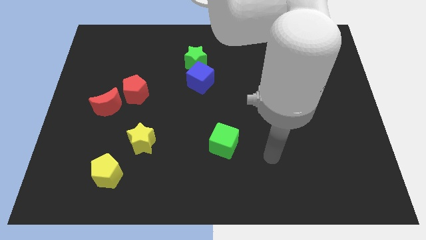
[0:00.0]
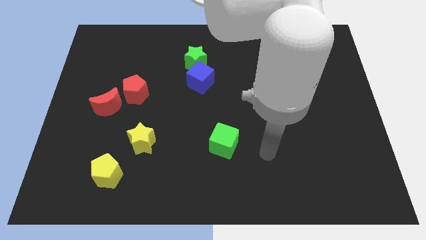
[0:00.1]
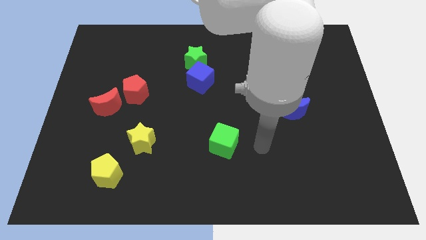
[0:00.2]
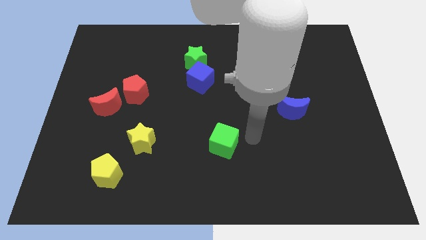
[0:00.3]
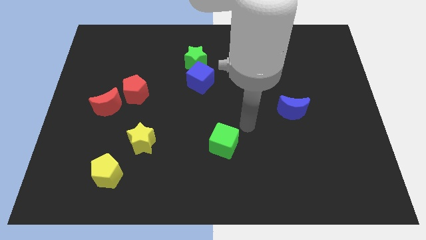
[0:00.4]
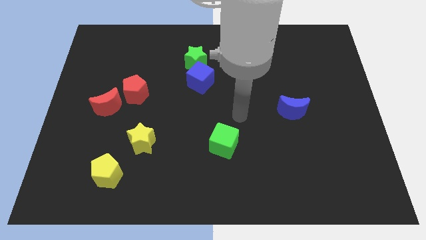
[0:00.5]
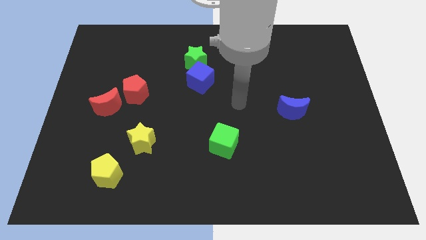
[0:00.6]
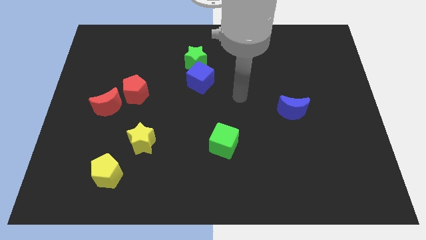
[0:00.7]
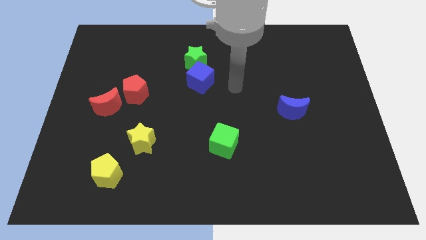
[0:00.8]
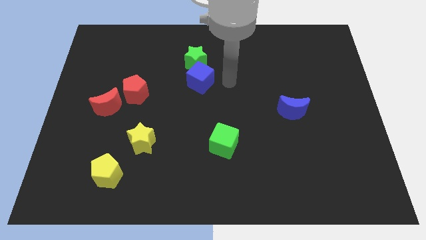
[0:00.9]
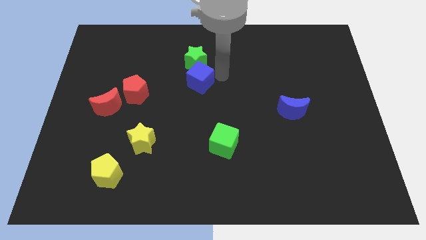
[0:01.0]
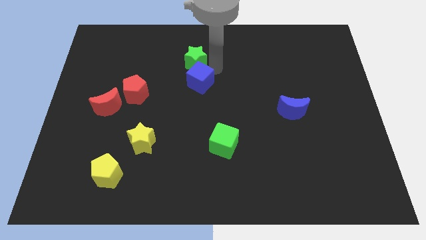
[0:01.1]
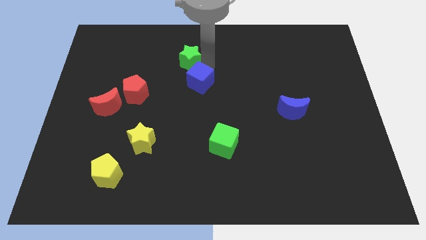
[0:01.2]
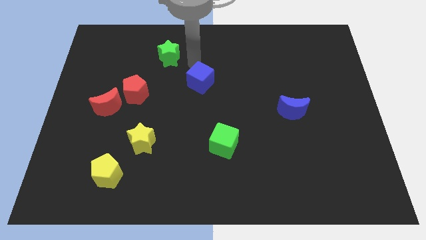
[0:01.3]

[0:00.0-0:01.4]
separate the blue cube from the green star

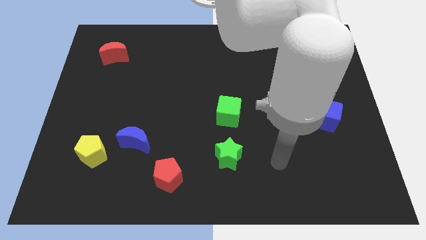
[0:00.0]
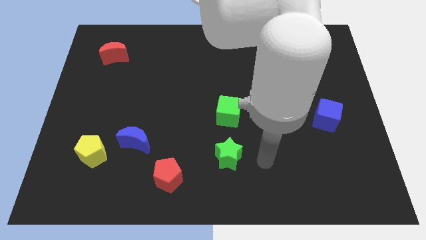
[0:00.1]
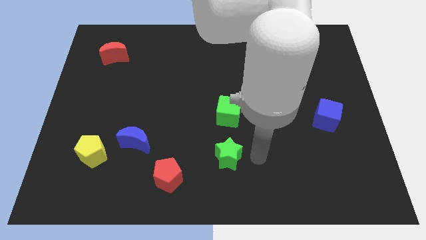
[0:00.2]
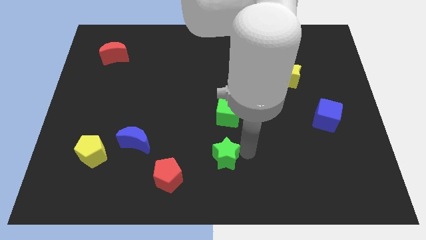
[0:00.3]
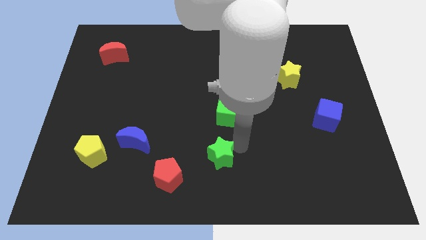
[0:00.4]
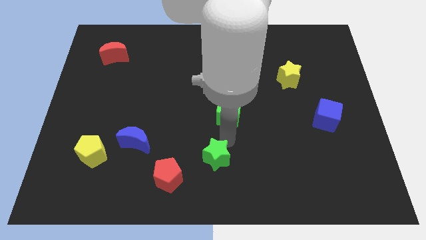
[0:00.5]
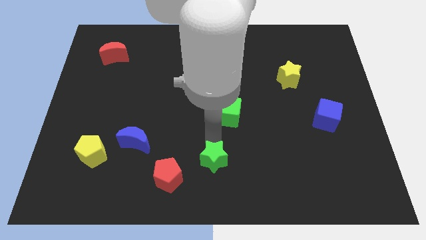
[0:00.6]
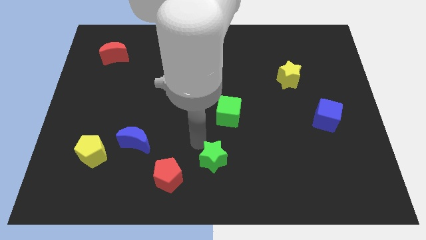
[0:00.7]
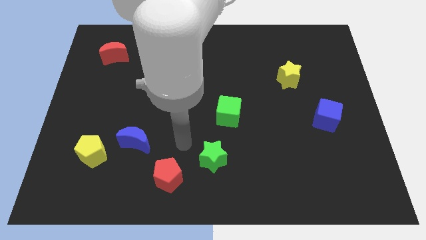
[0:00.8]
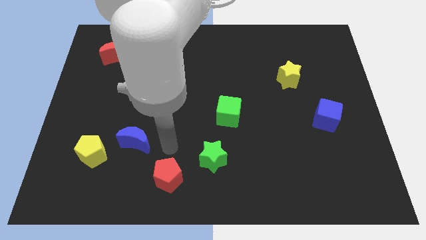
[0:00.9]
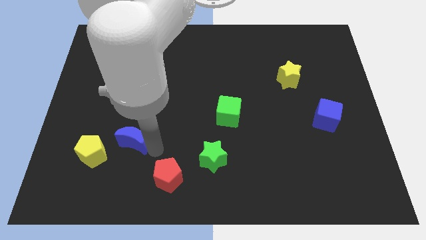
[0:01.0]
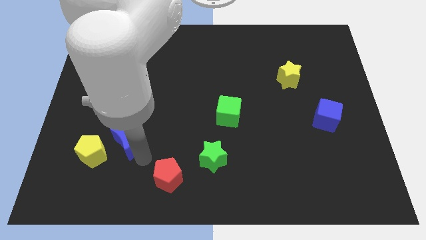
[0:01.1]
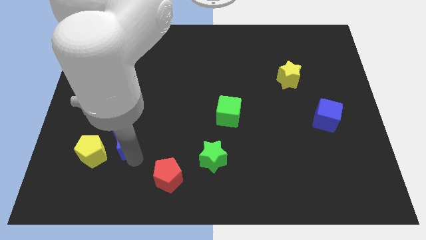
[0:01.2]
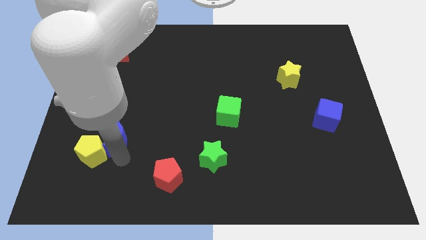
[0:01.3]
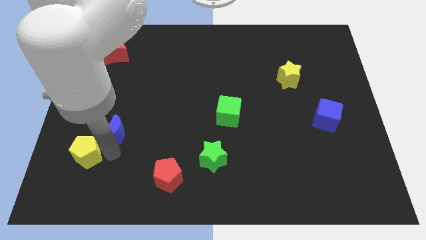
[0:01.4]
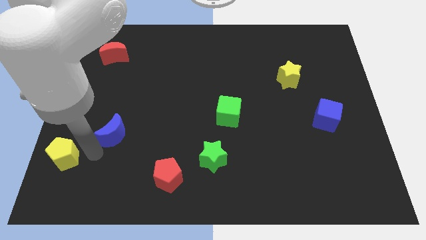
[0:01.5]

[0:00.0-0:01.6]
separate the blue moon from the yellow pentagon

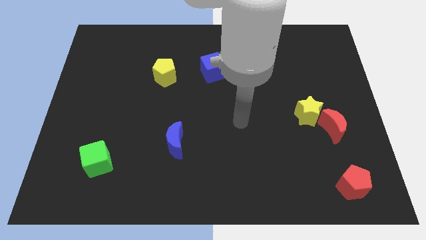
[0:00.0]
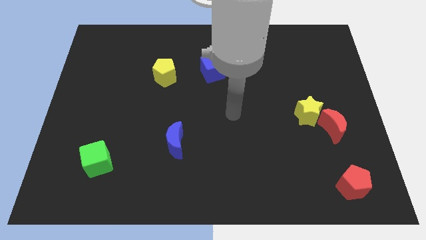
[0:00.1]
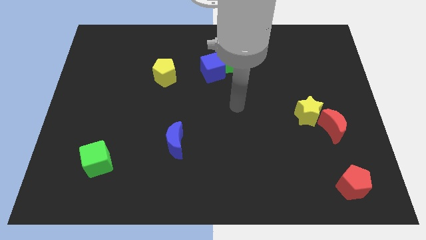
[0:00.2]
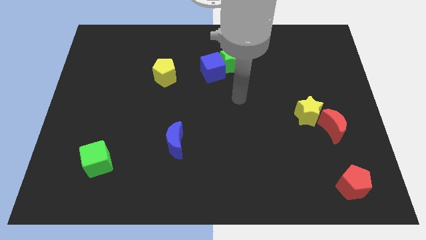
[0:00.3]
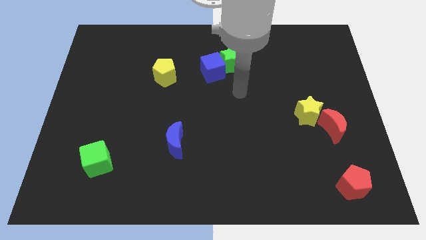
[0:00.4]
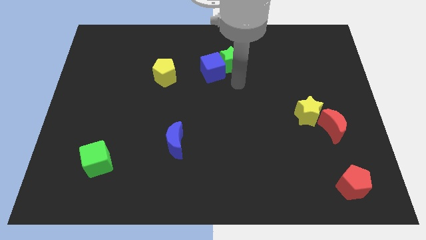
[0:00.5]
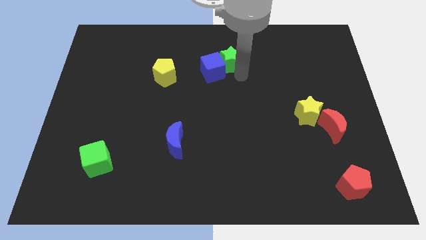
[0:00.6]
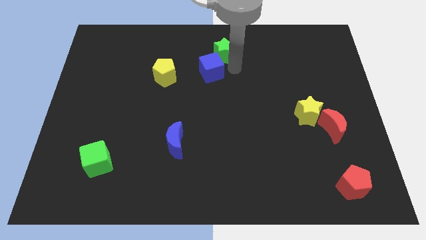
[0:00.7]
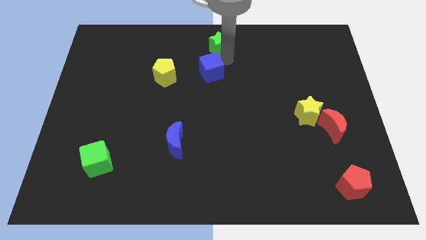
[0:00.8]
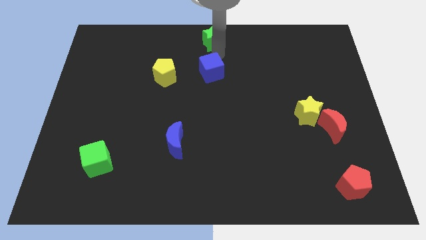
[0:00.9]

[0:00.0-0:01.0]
move the blue cube away from the green star

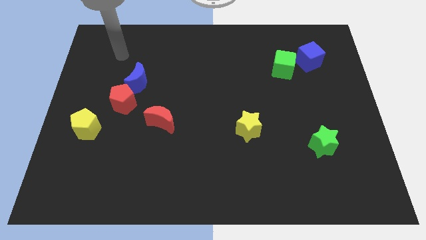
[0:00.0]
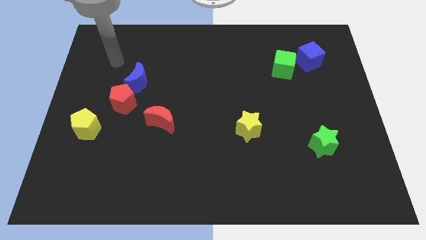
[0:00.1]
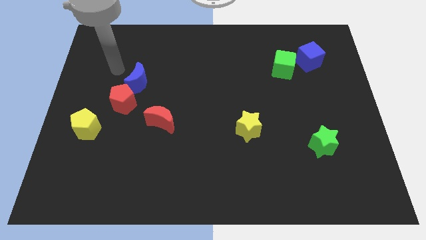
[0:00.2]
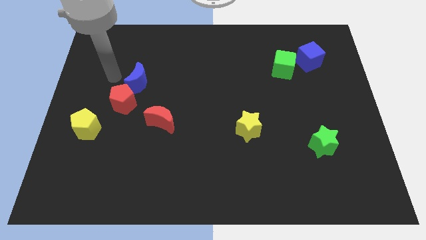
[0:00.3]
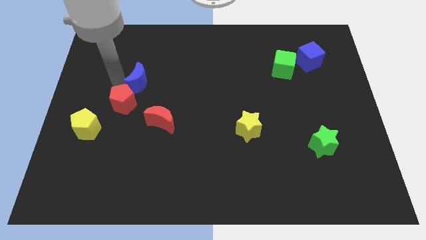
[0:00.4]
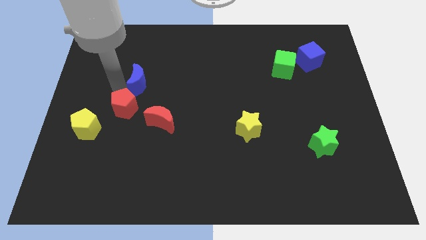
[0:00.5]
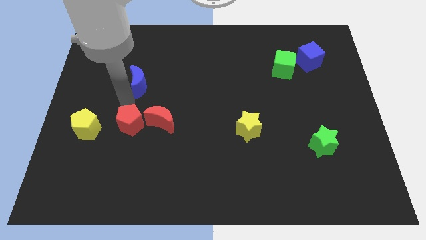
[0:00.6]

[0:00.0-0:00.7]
pull the blue moon apart from the red pentagon

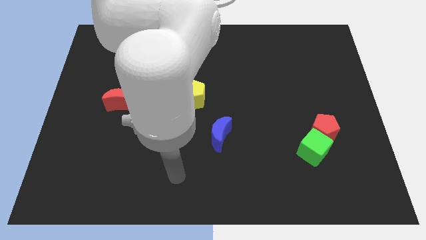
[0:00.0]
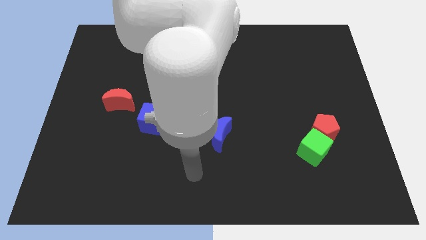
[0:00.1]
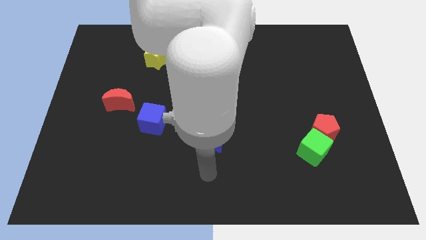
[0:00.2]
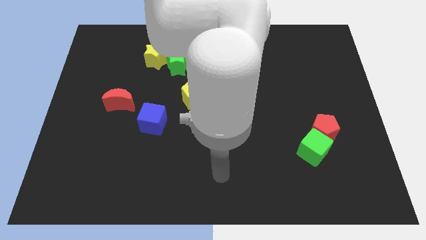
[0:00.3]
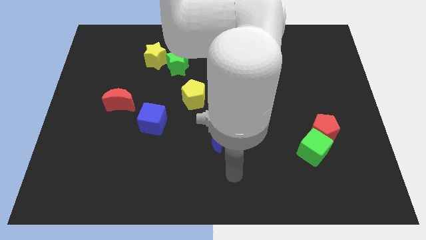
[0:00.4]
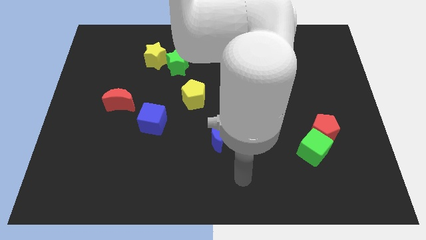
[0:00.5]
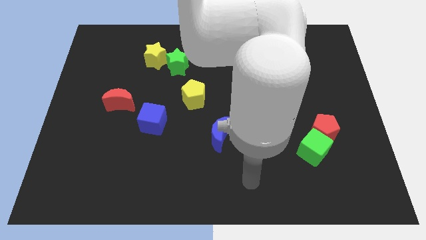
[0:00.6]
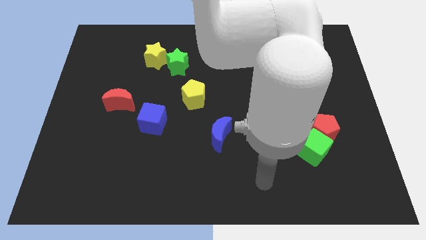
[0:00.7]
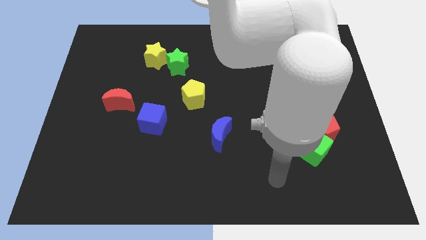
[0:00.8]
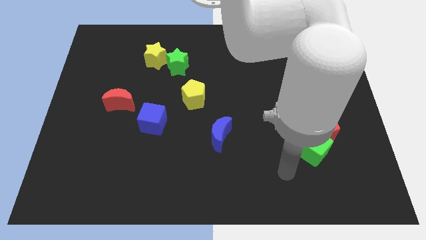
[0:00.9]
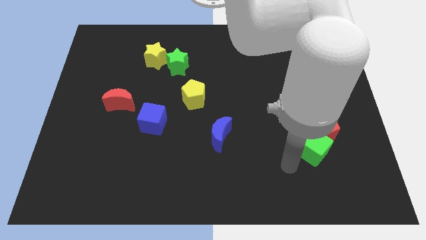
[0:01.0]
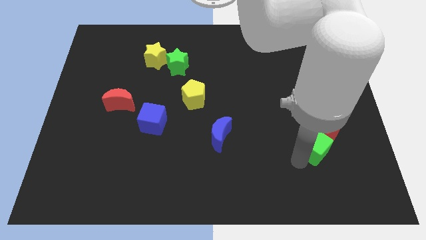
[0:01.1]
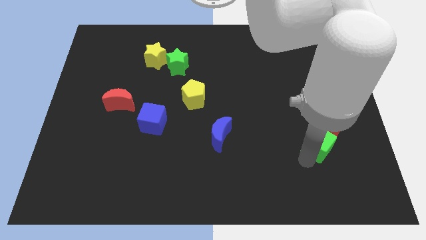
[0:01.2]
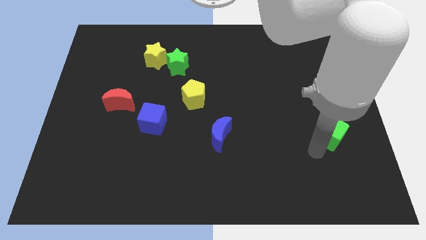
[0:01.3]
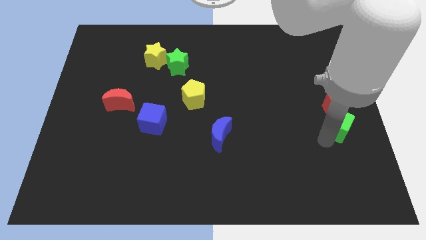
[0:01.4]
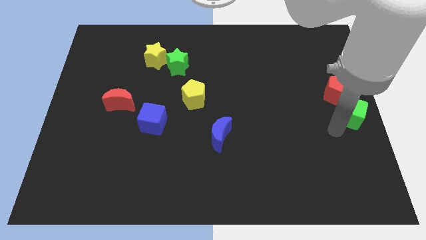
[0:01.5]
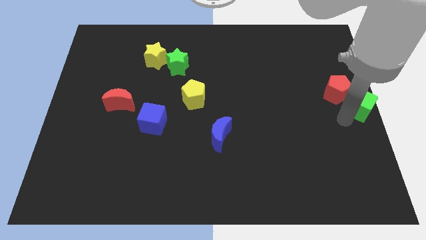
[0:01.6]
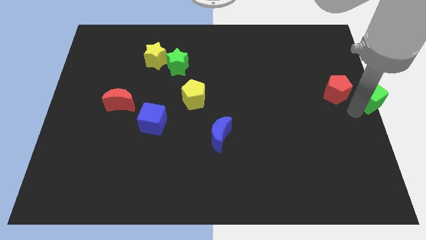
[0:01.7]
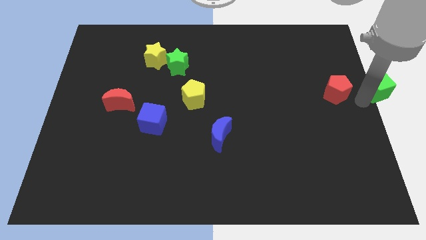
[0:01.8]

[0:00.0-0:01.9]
separate the red pentagon from the green cube

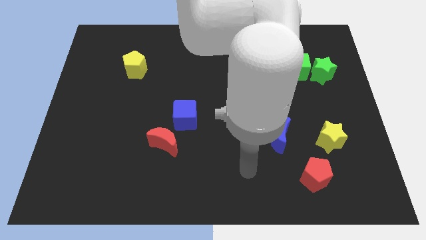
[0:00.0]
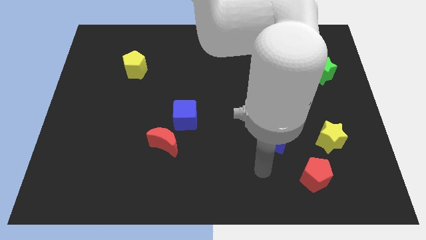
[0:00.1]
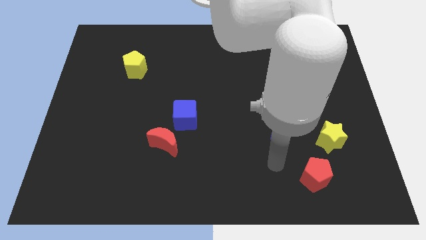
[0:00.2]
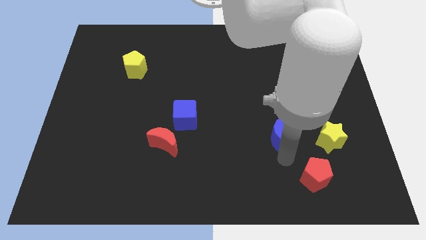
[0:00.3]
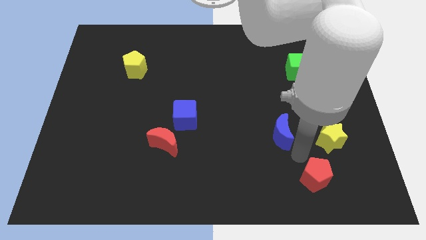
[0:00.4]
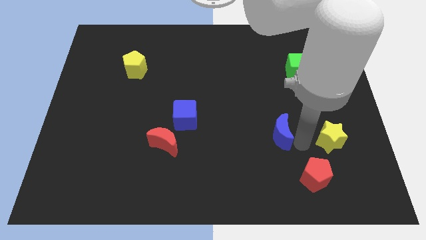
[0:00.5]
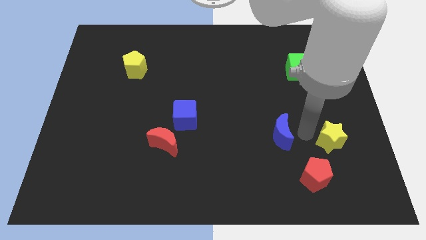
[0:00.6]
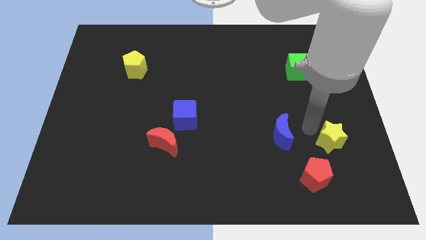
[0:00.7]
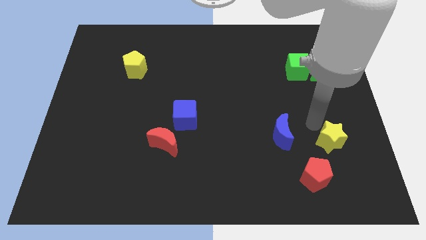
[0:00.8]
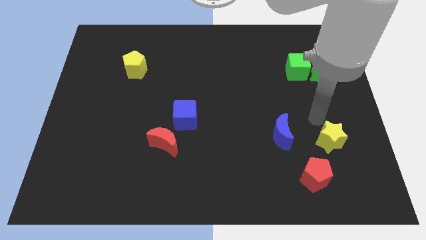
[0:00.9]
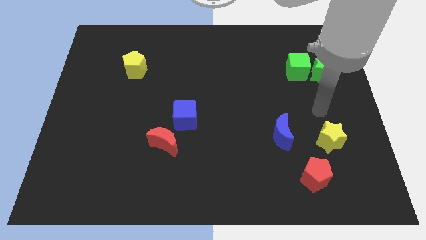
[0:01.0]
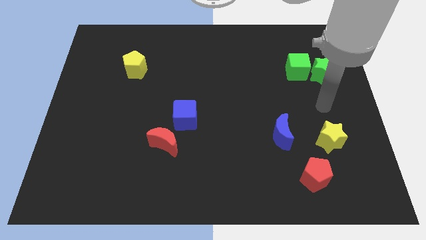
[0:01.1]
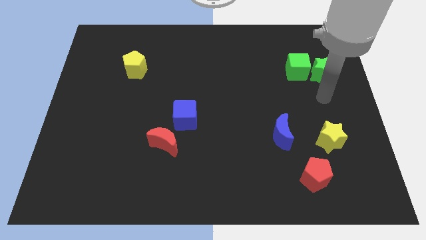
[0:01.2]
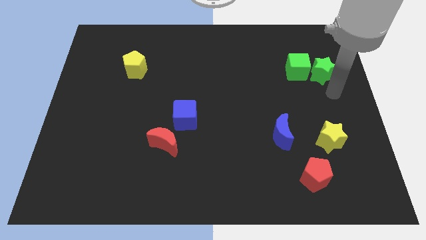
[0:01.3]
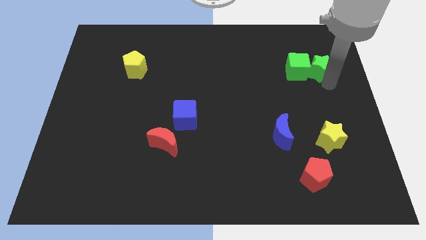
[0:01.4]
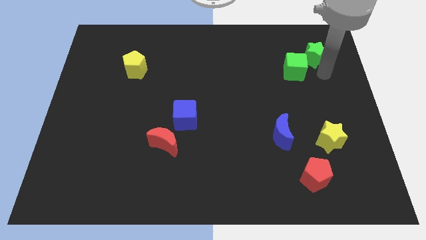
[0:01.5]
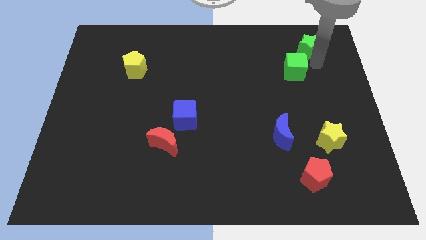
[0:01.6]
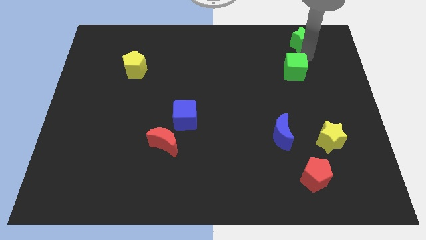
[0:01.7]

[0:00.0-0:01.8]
pull the green cube apart from the green star

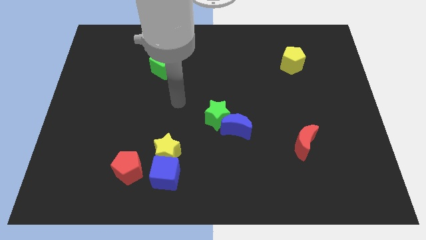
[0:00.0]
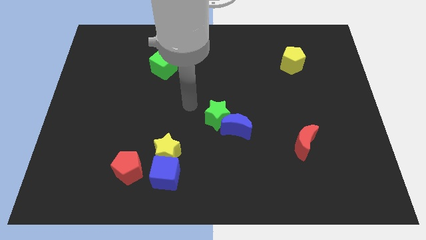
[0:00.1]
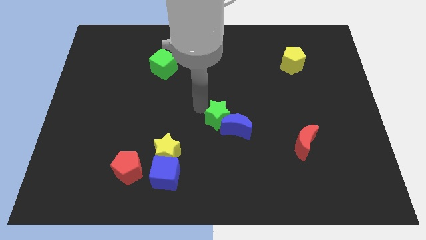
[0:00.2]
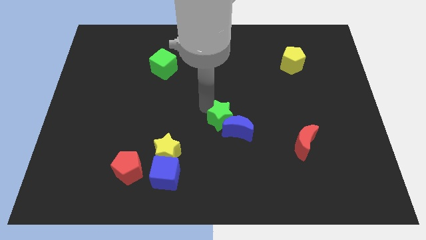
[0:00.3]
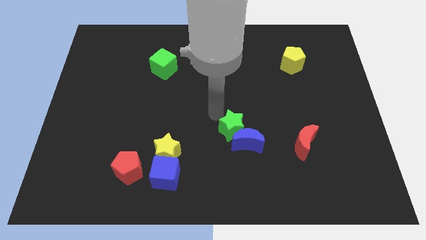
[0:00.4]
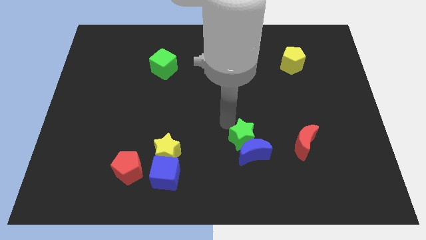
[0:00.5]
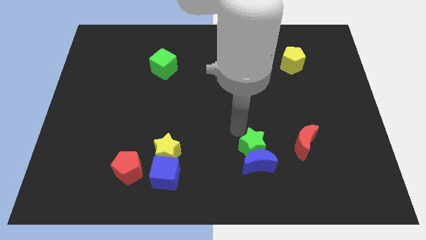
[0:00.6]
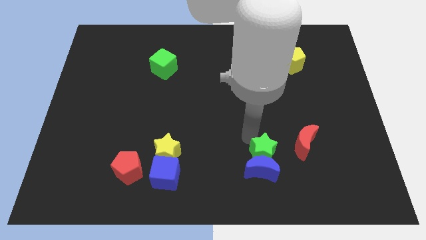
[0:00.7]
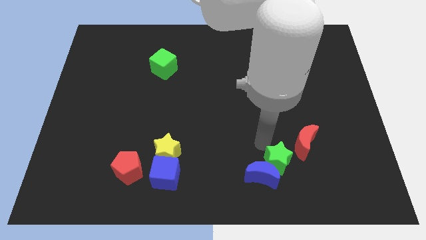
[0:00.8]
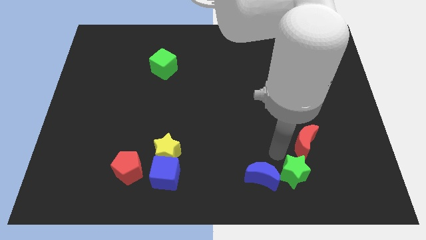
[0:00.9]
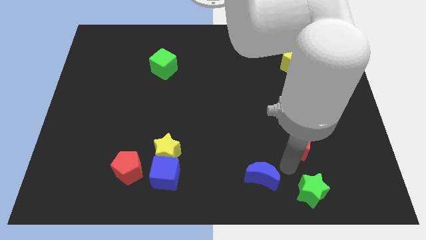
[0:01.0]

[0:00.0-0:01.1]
move the blue moon away from the green star
